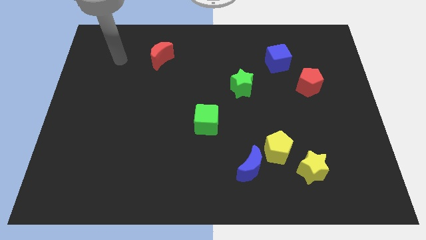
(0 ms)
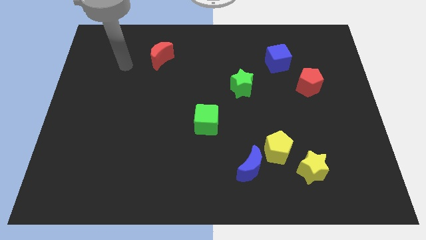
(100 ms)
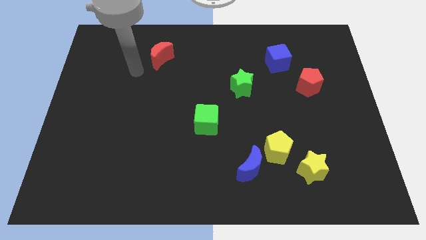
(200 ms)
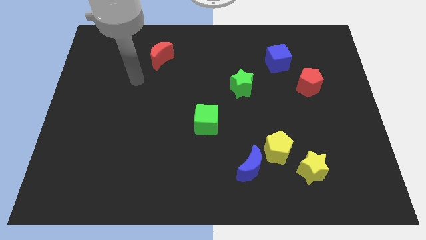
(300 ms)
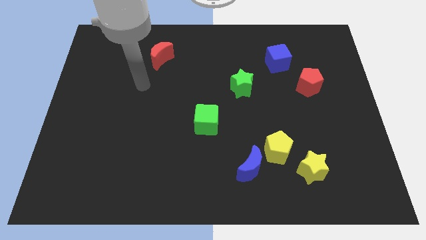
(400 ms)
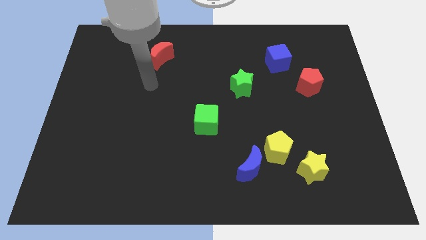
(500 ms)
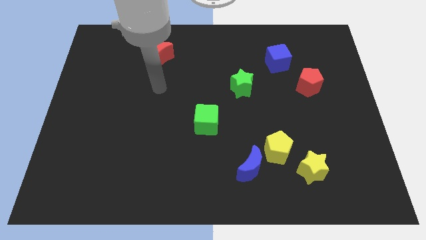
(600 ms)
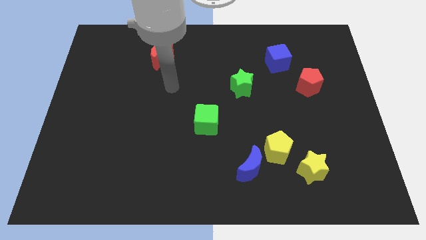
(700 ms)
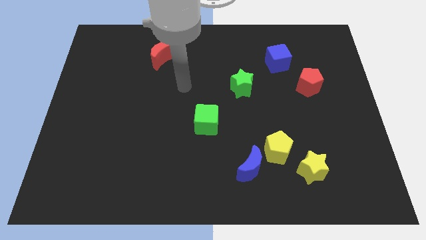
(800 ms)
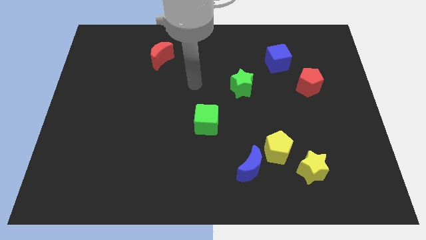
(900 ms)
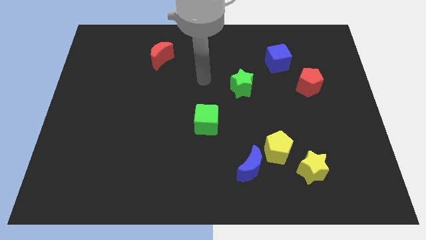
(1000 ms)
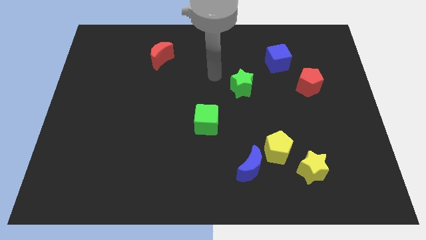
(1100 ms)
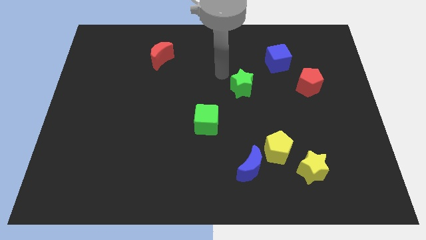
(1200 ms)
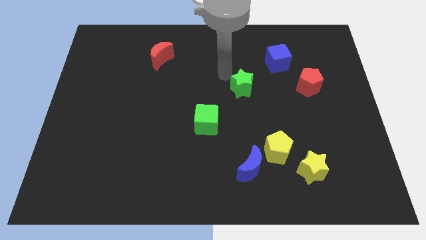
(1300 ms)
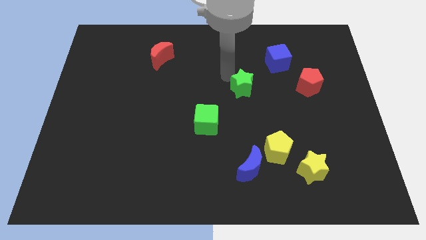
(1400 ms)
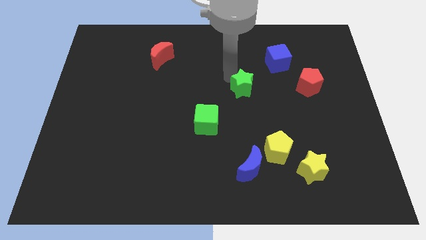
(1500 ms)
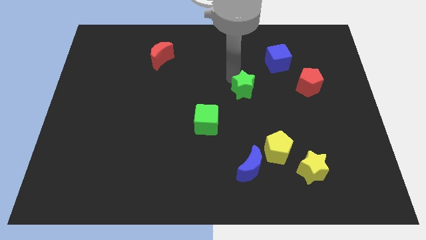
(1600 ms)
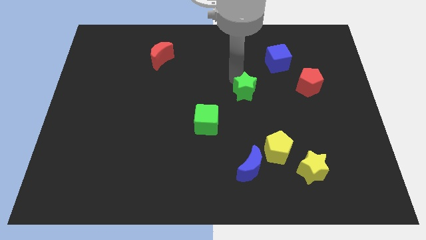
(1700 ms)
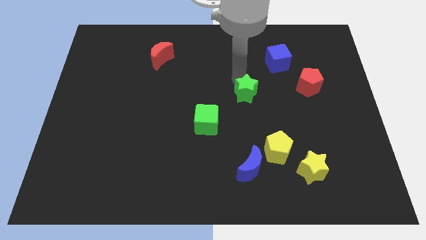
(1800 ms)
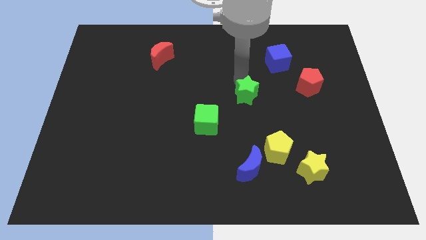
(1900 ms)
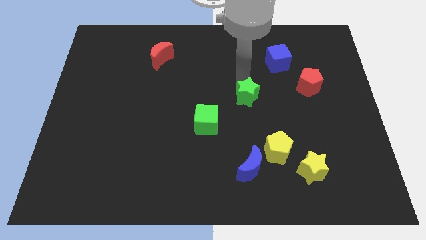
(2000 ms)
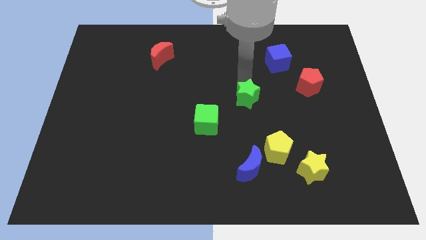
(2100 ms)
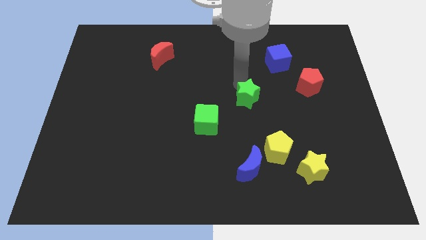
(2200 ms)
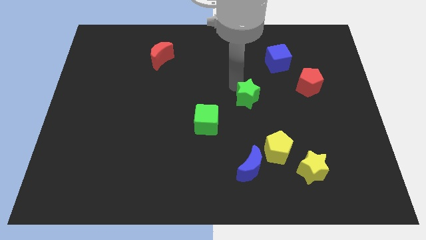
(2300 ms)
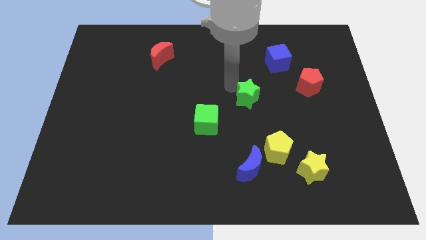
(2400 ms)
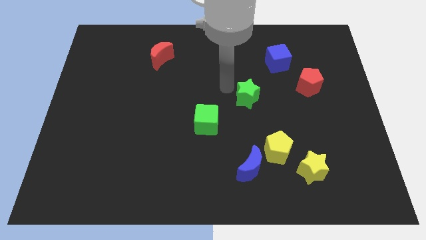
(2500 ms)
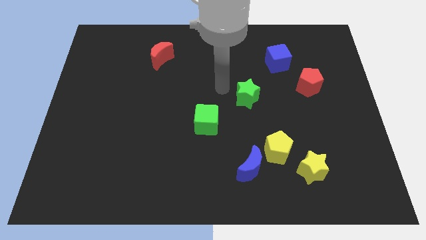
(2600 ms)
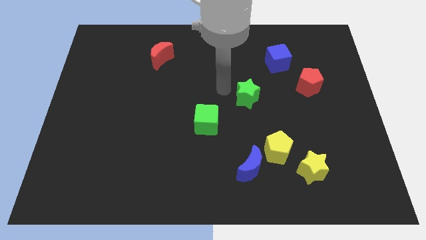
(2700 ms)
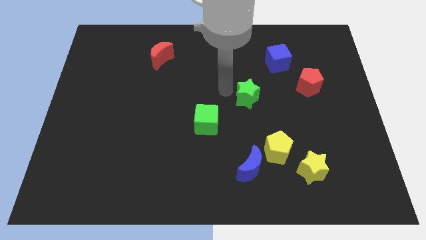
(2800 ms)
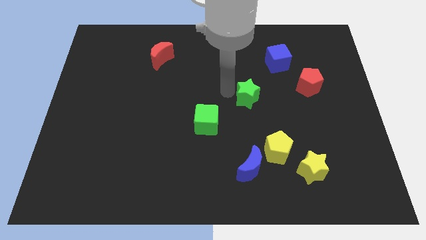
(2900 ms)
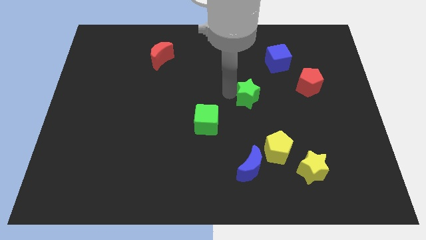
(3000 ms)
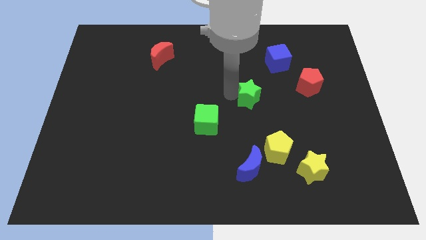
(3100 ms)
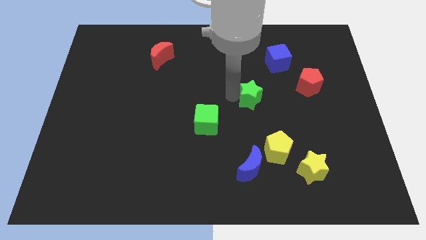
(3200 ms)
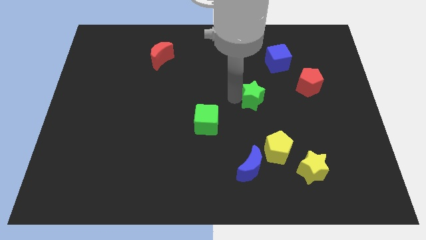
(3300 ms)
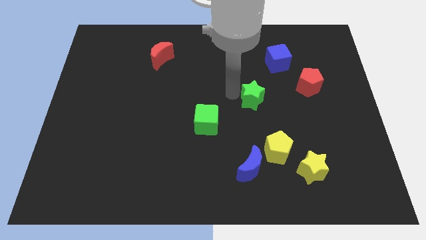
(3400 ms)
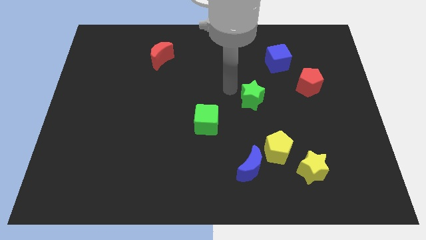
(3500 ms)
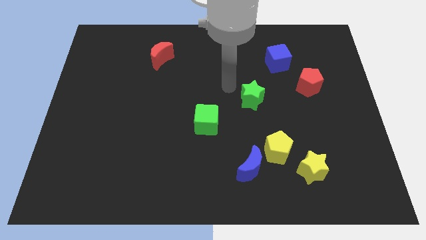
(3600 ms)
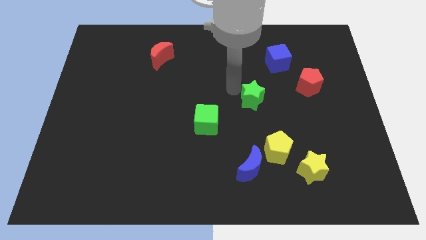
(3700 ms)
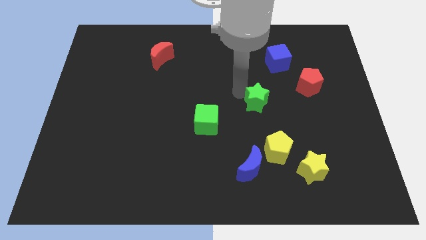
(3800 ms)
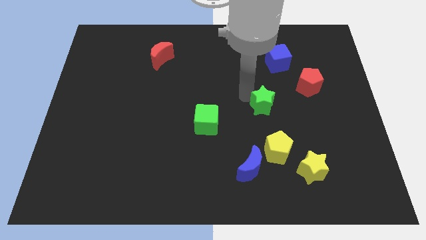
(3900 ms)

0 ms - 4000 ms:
slide the green star downwards and to the right a little

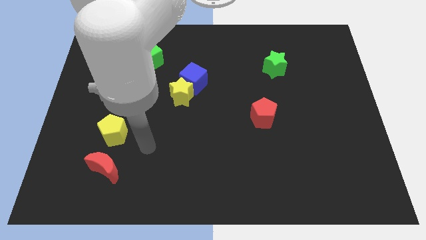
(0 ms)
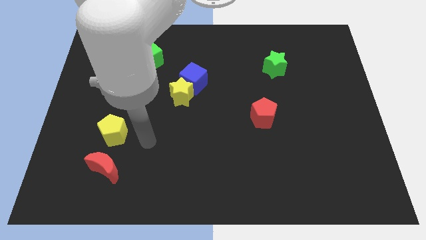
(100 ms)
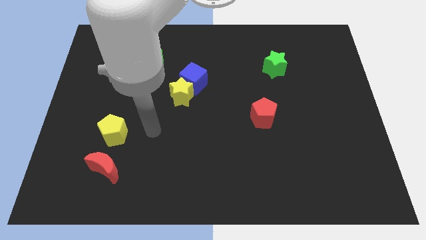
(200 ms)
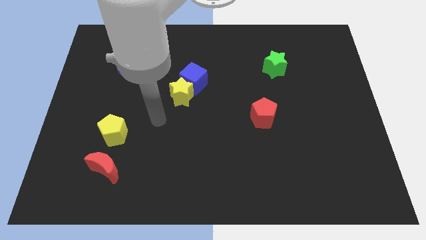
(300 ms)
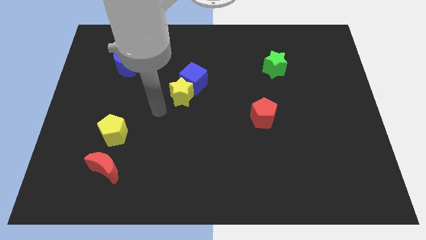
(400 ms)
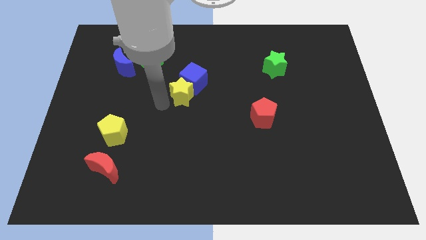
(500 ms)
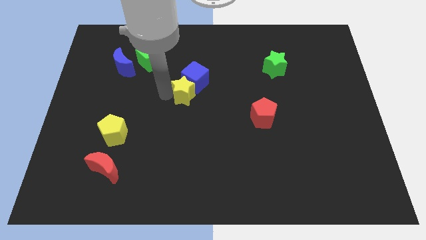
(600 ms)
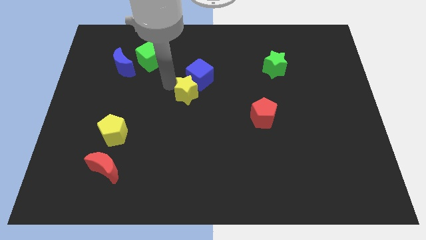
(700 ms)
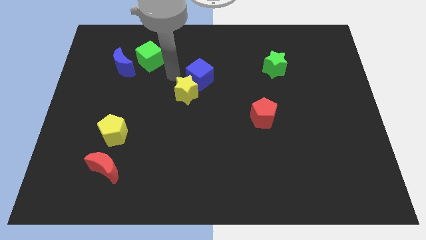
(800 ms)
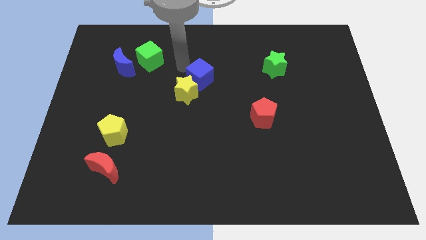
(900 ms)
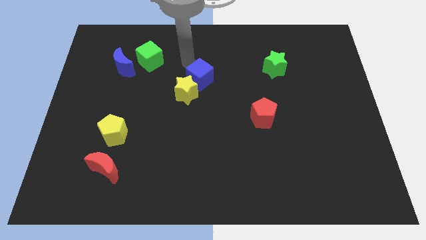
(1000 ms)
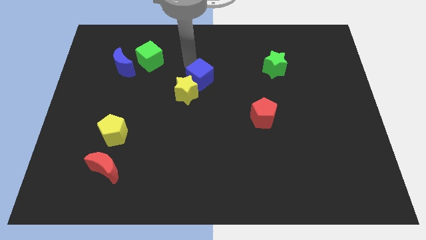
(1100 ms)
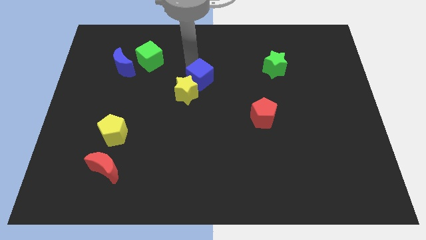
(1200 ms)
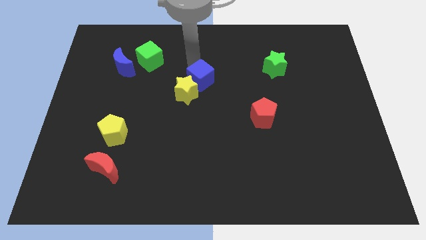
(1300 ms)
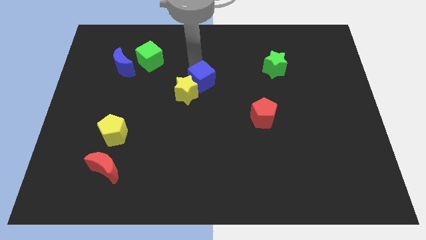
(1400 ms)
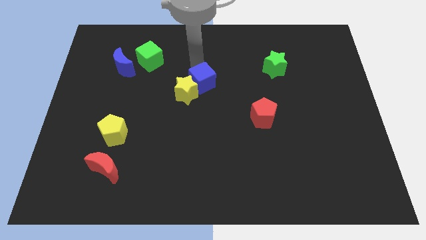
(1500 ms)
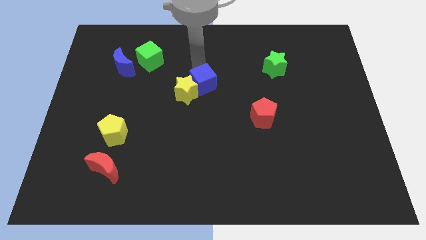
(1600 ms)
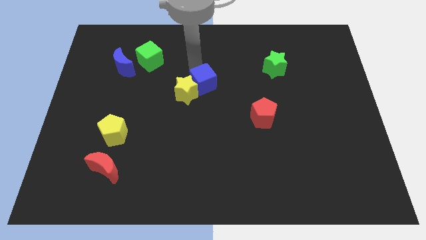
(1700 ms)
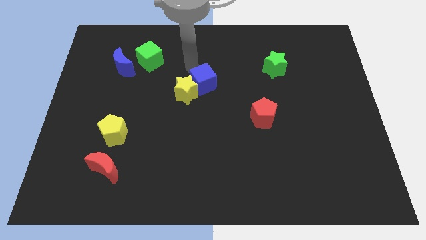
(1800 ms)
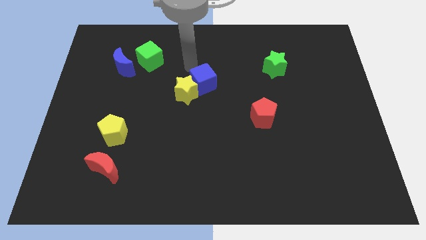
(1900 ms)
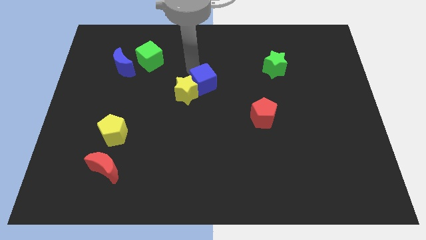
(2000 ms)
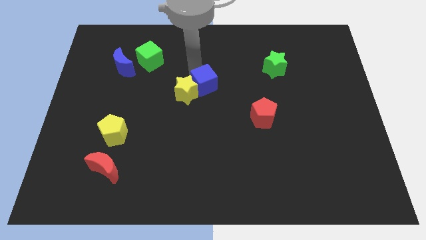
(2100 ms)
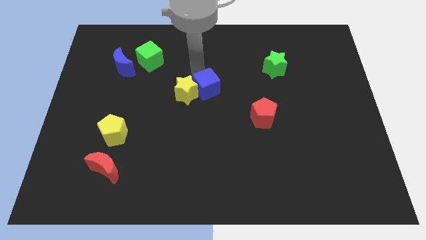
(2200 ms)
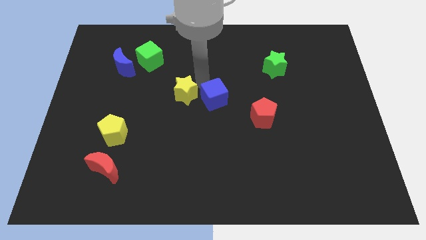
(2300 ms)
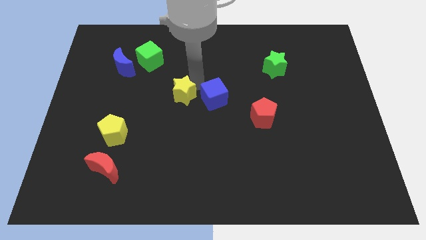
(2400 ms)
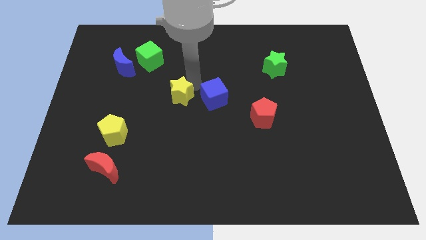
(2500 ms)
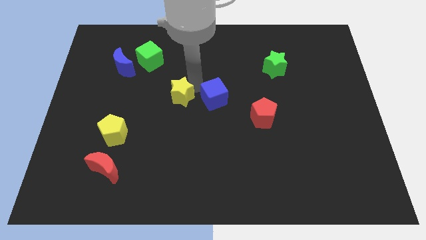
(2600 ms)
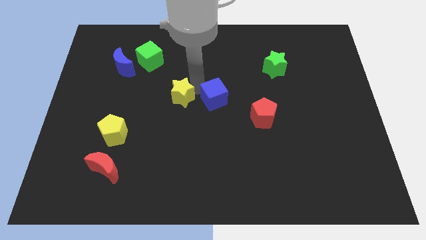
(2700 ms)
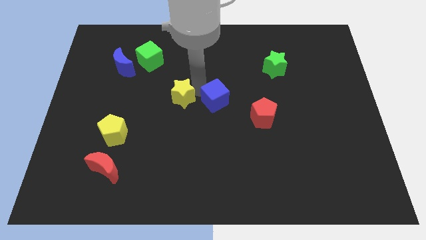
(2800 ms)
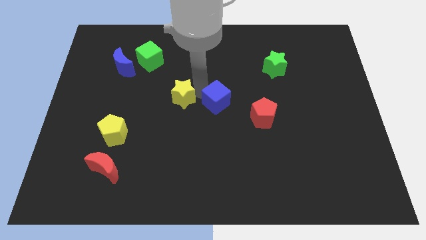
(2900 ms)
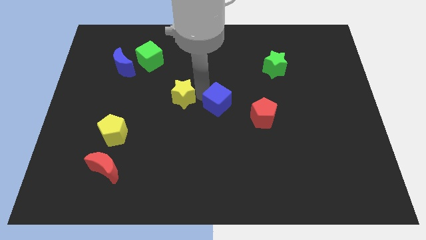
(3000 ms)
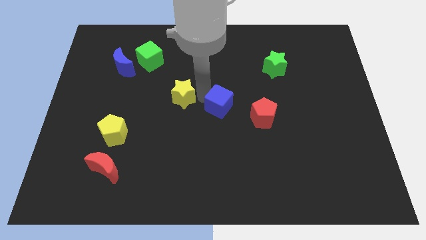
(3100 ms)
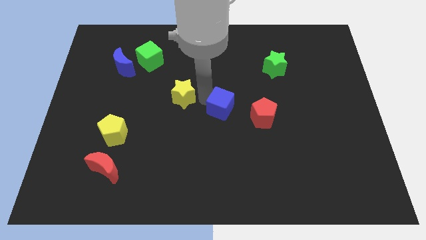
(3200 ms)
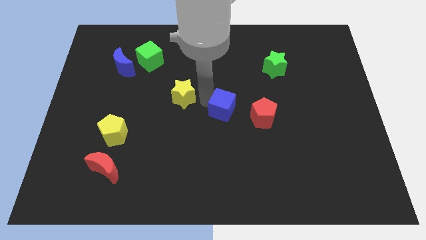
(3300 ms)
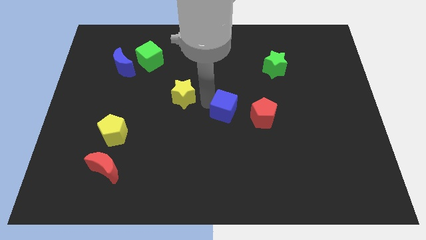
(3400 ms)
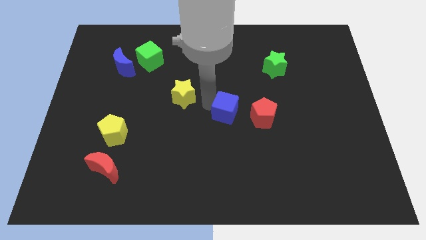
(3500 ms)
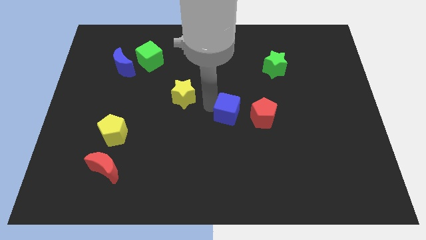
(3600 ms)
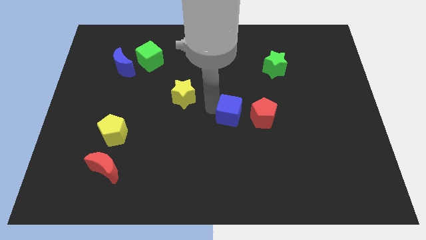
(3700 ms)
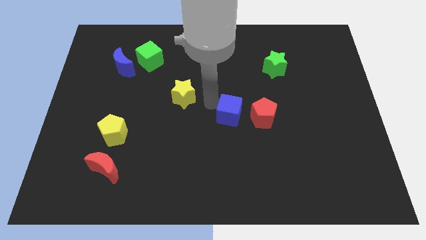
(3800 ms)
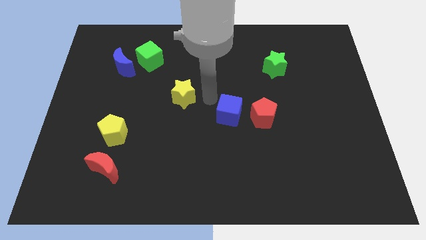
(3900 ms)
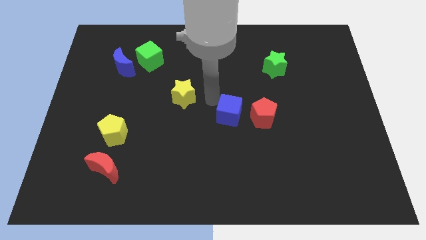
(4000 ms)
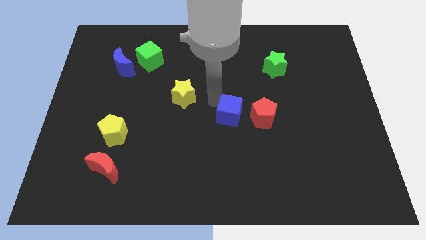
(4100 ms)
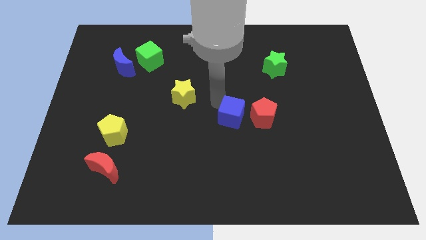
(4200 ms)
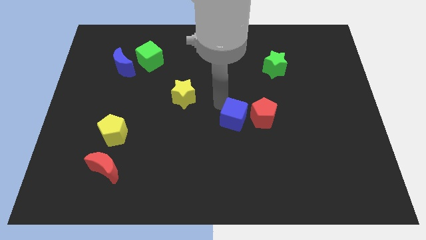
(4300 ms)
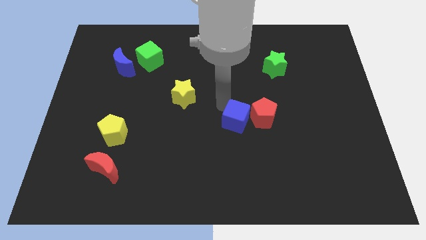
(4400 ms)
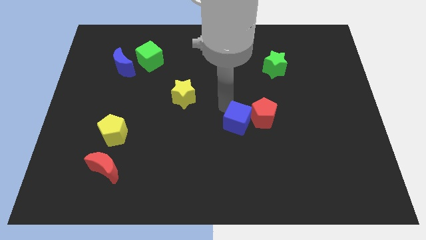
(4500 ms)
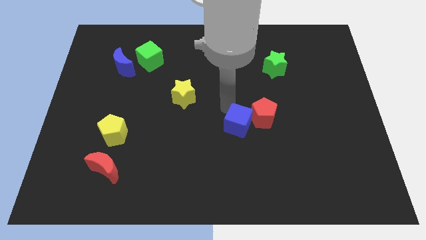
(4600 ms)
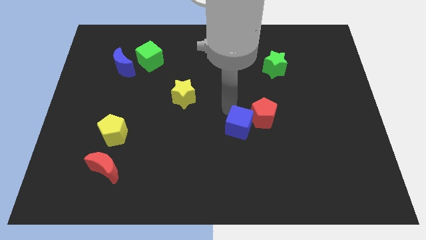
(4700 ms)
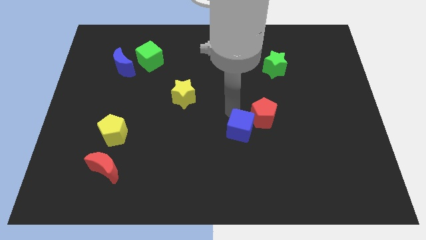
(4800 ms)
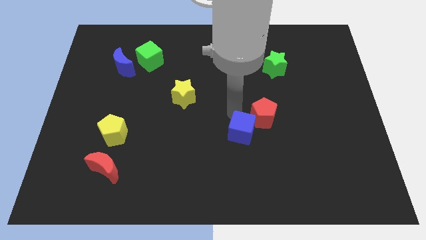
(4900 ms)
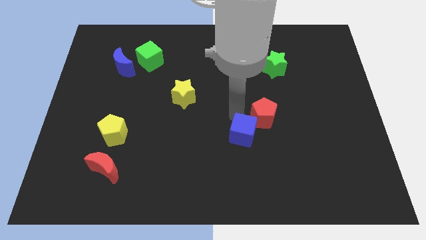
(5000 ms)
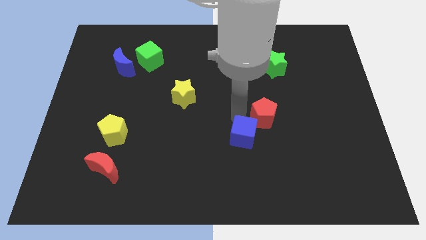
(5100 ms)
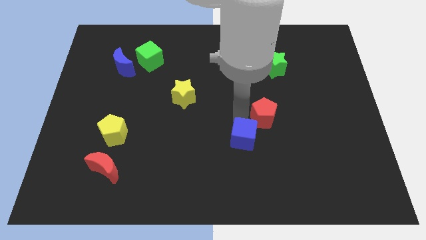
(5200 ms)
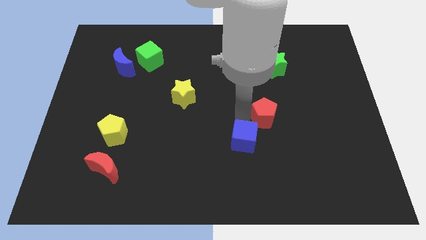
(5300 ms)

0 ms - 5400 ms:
move the blue cube downwards and right diagonally
